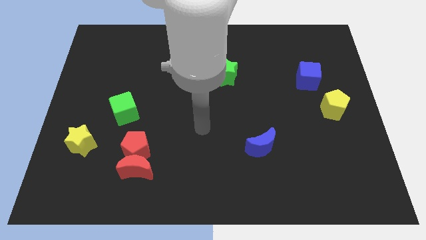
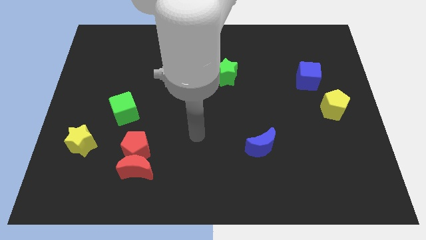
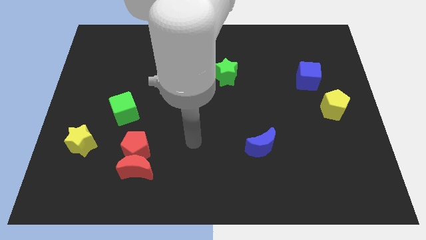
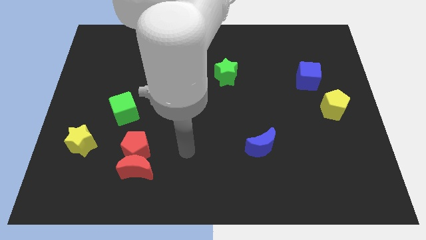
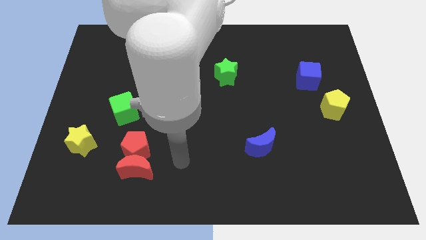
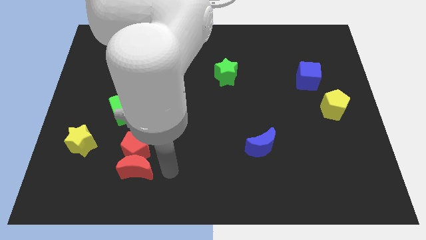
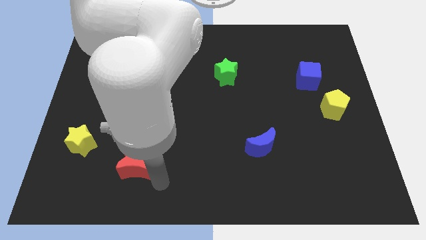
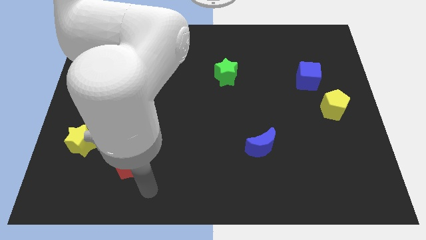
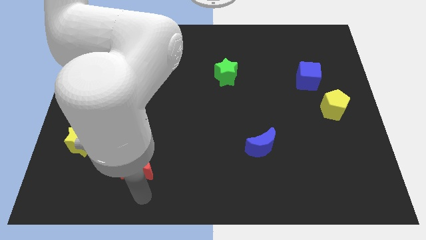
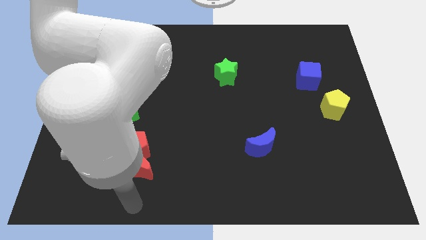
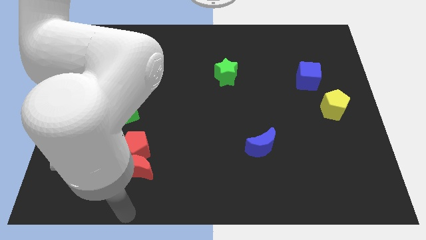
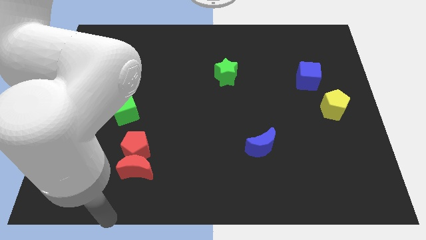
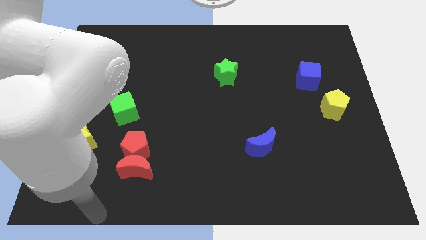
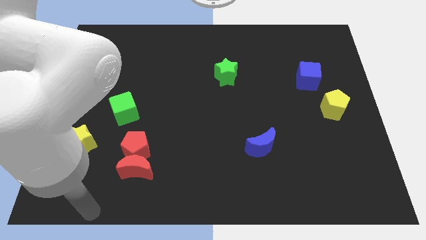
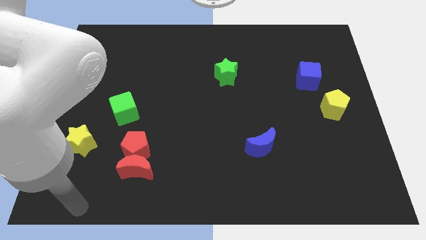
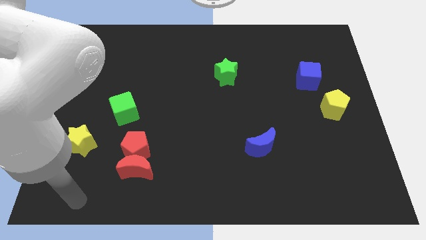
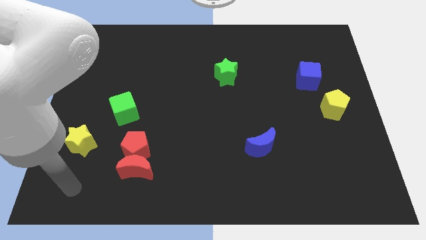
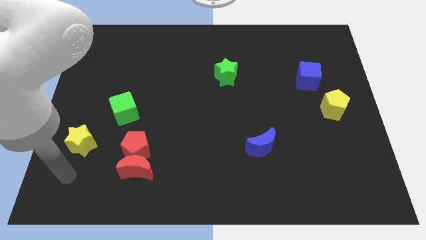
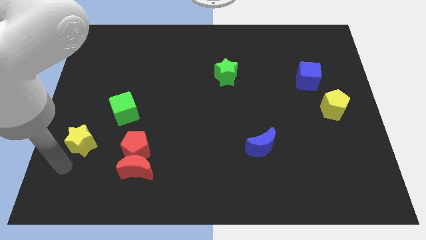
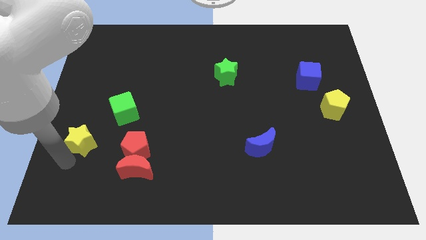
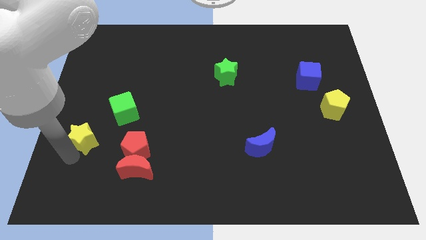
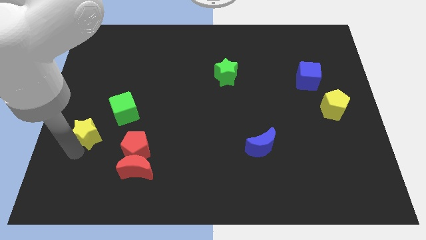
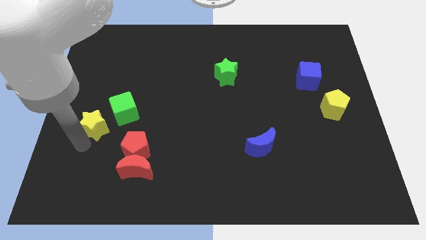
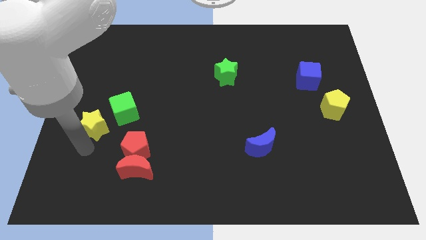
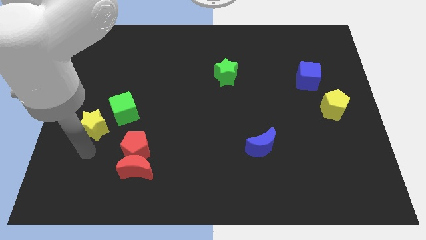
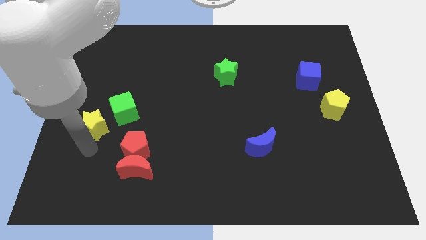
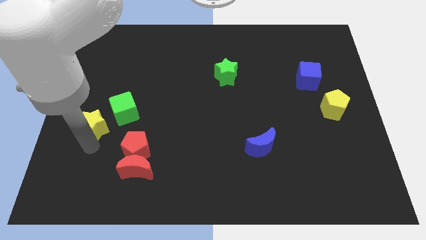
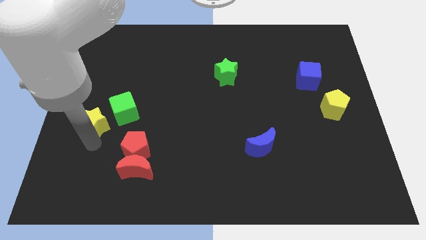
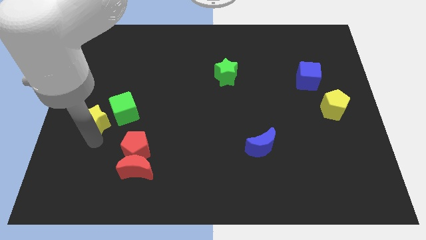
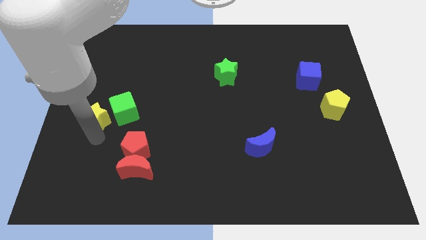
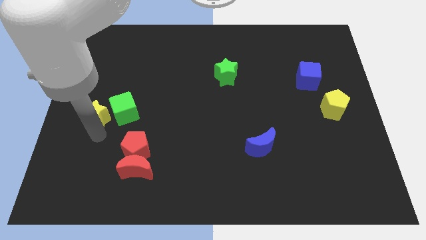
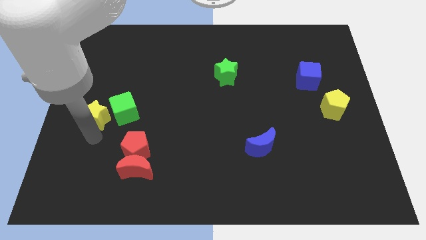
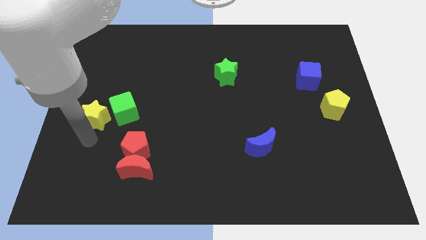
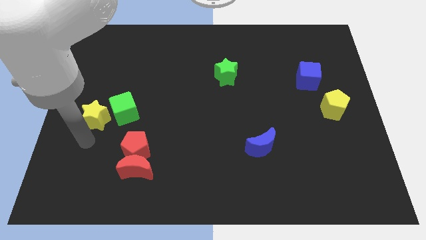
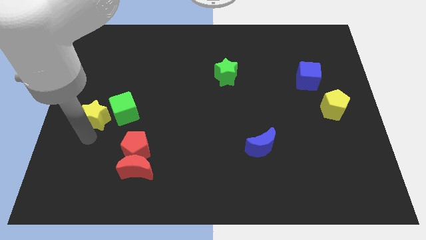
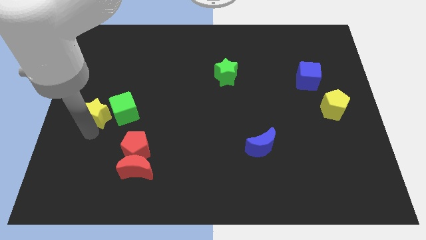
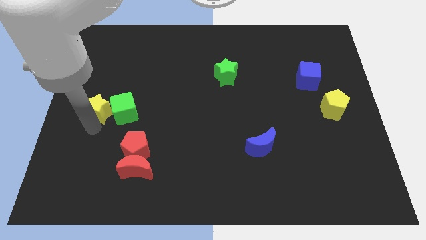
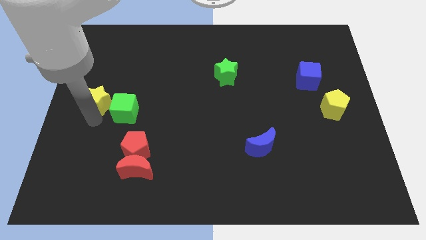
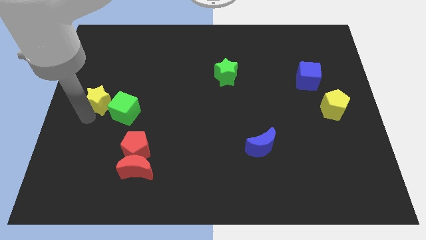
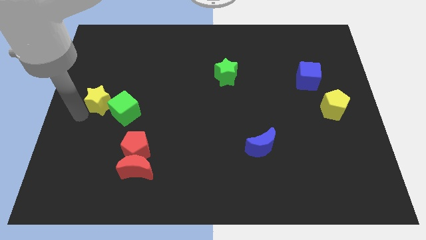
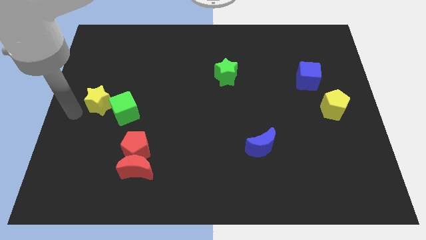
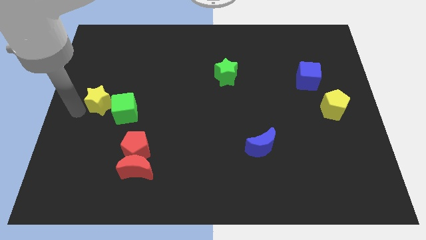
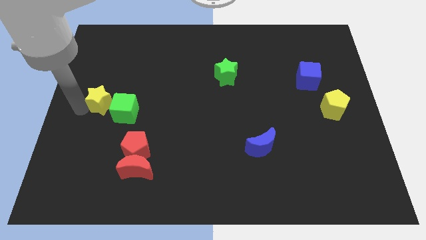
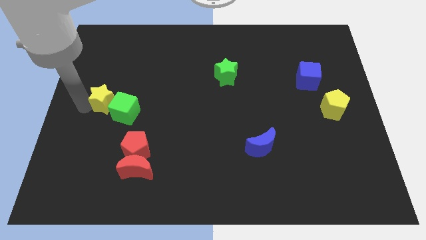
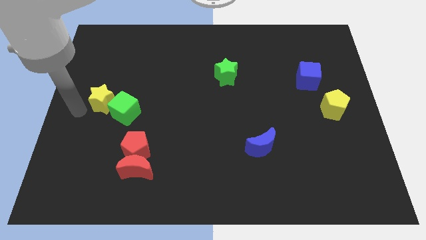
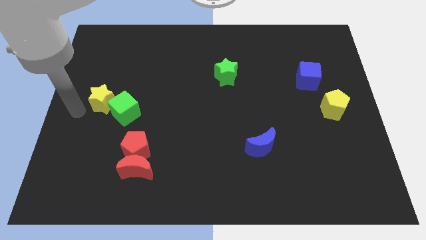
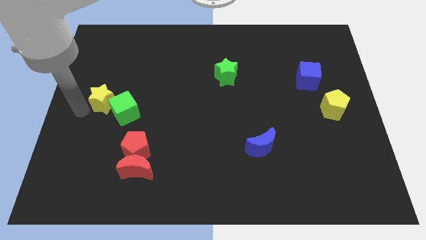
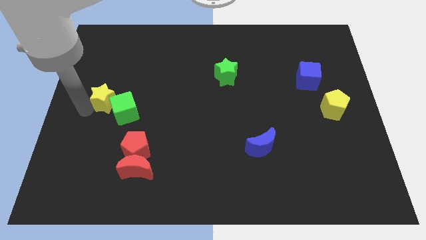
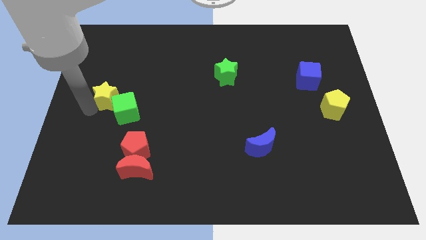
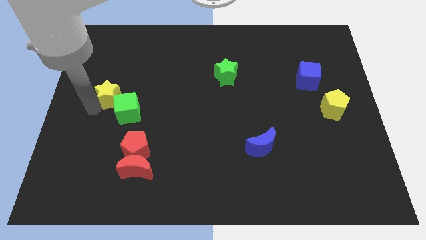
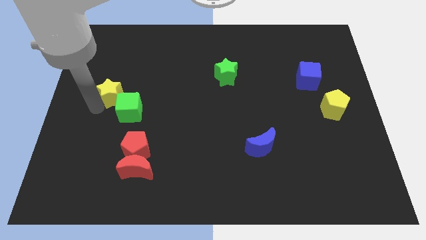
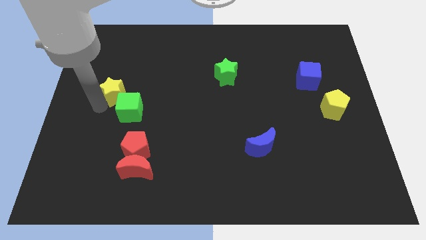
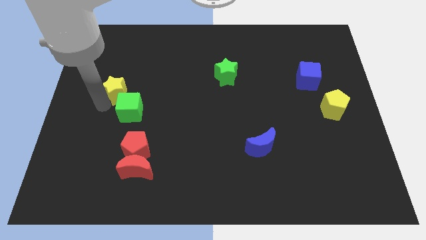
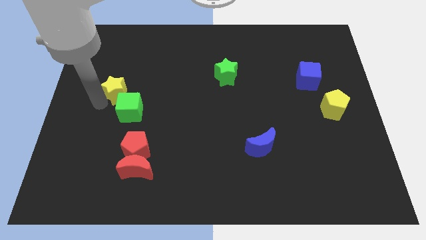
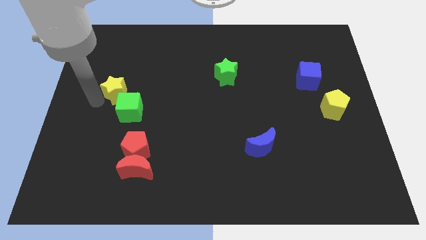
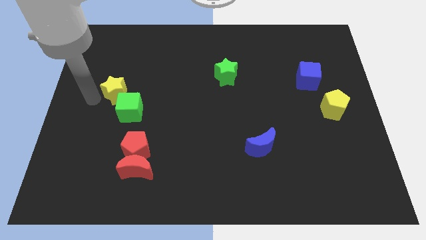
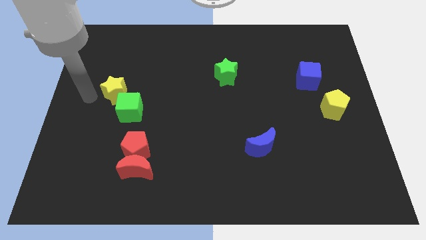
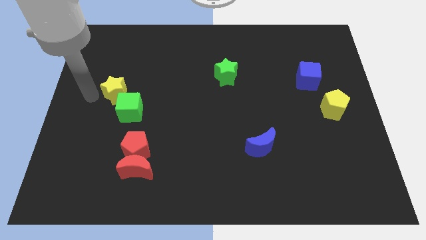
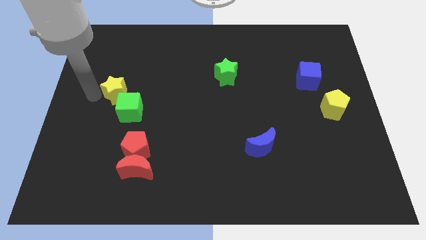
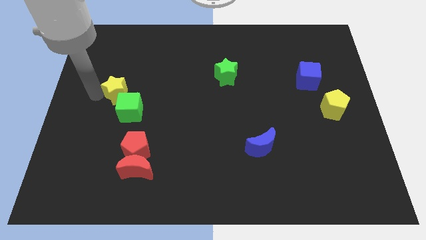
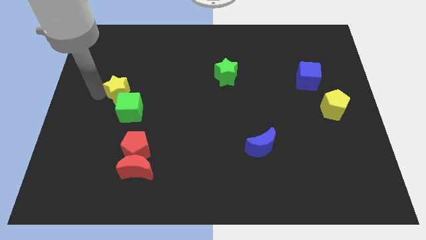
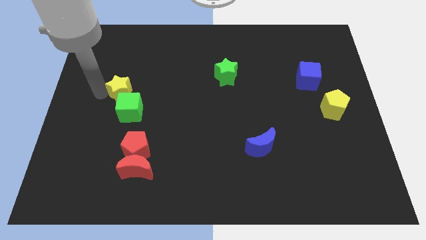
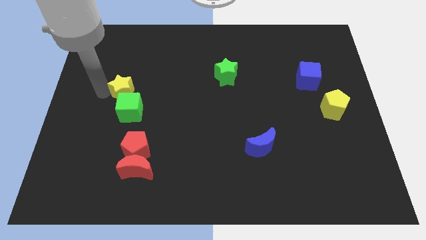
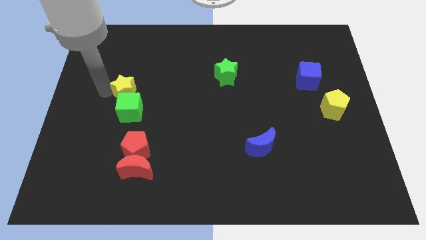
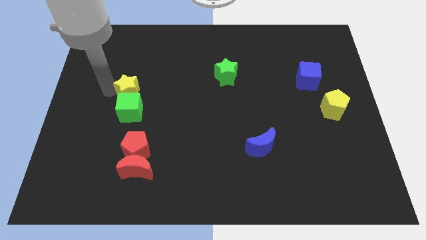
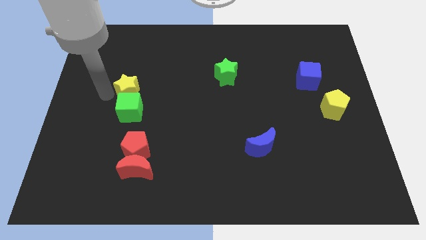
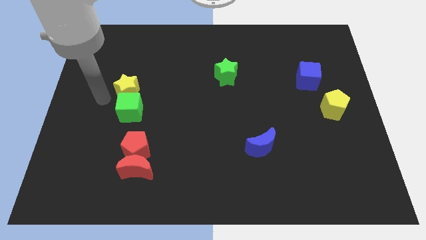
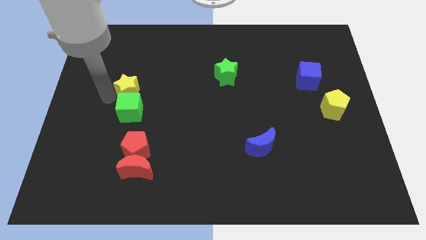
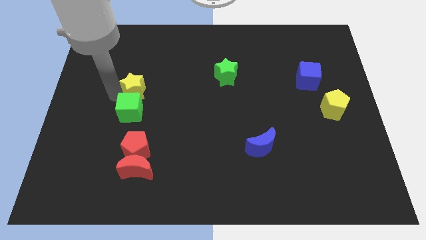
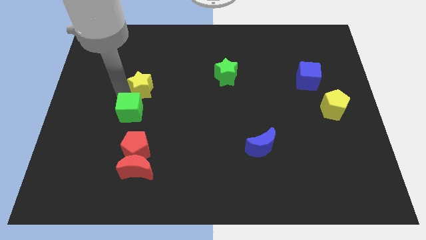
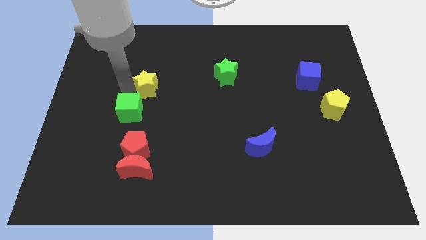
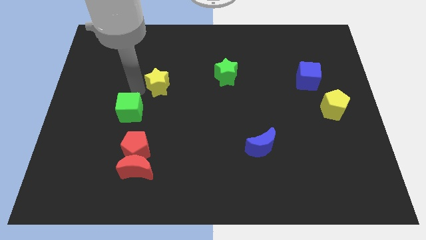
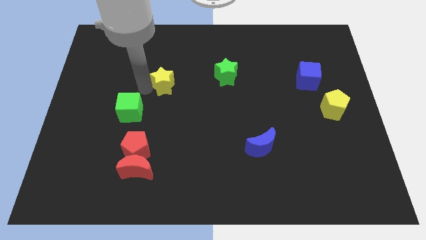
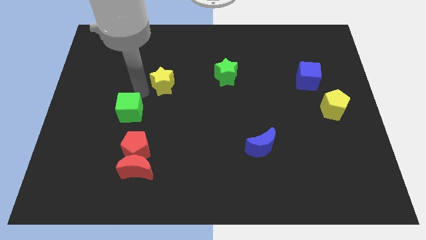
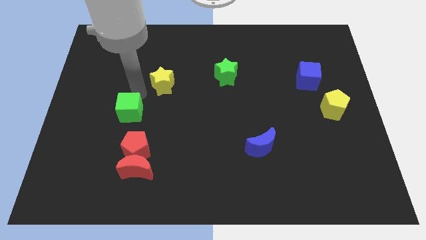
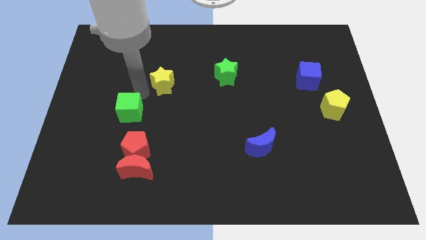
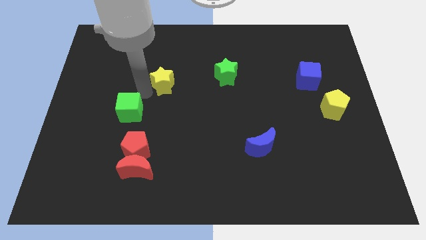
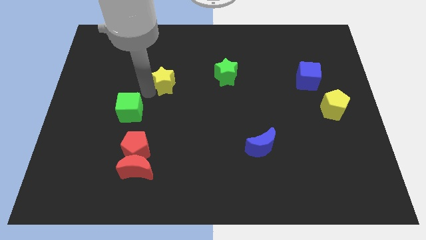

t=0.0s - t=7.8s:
slide the yellow star to the left of the green star
